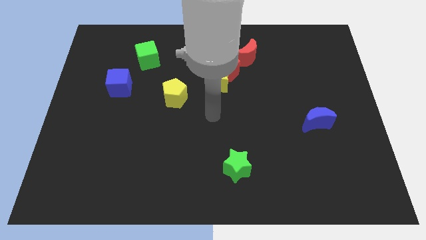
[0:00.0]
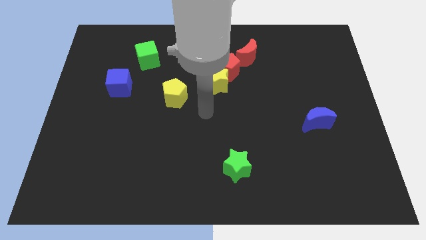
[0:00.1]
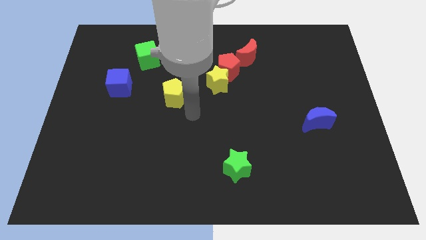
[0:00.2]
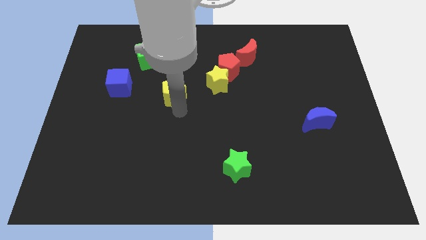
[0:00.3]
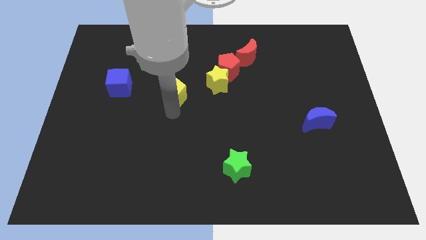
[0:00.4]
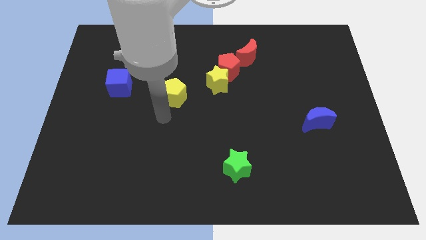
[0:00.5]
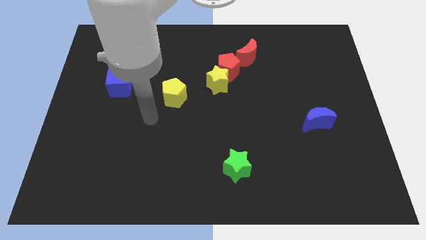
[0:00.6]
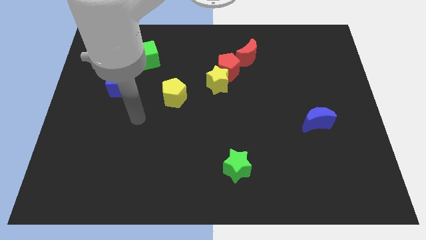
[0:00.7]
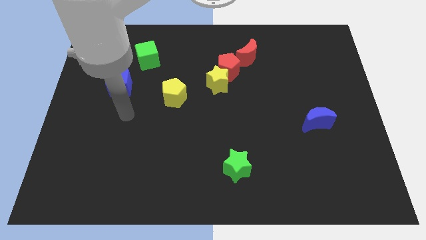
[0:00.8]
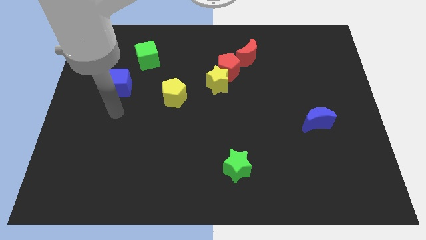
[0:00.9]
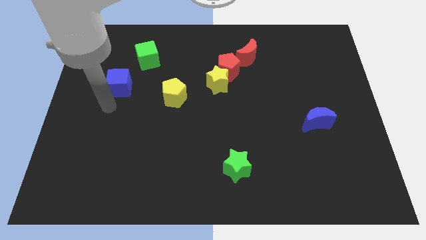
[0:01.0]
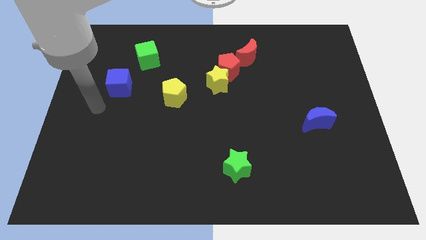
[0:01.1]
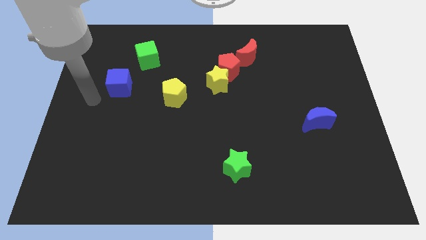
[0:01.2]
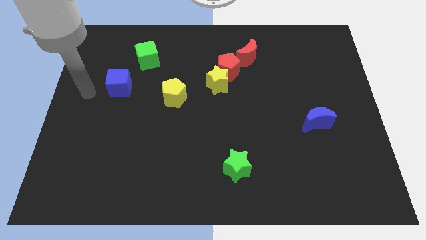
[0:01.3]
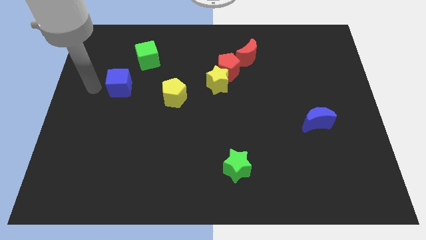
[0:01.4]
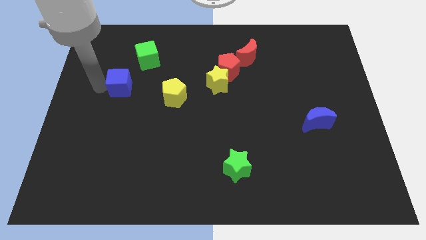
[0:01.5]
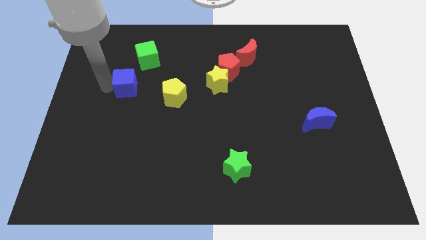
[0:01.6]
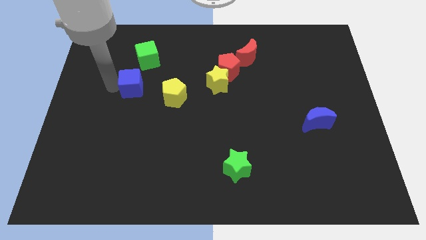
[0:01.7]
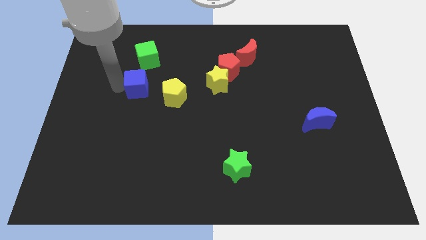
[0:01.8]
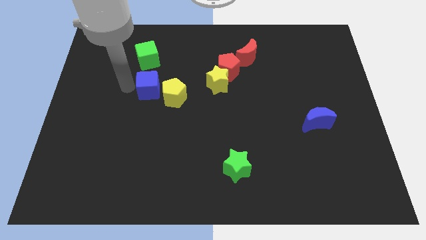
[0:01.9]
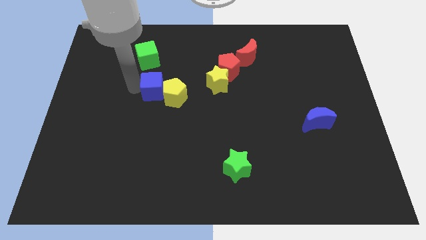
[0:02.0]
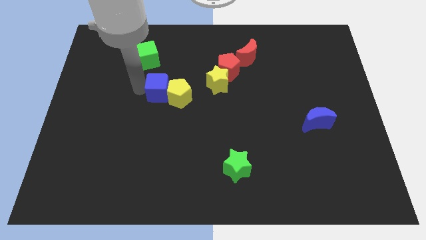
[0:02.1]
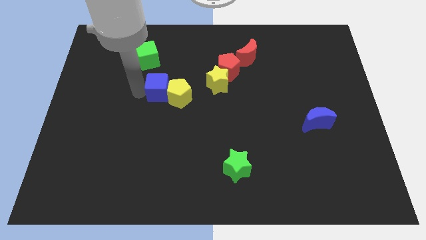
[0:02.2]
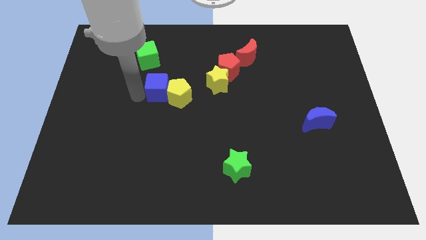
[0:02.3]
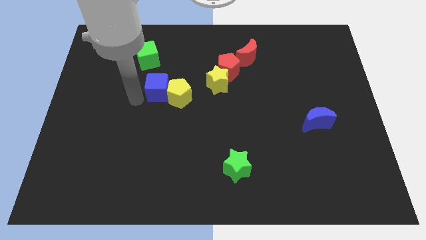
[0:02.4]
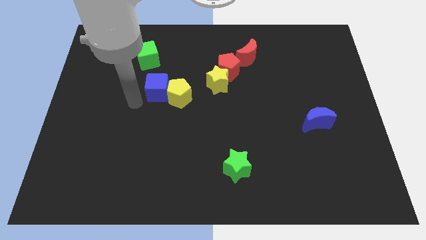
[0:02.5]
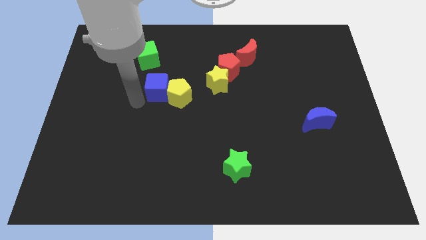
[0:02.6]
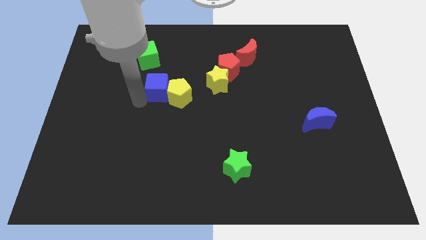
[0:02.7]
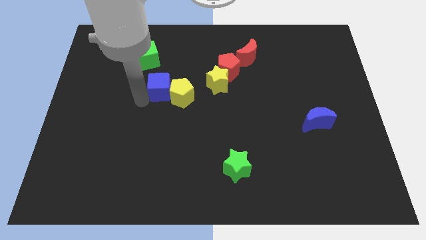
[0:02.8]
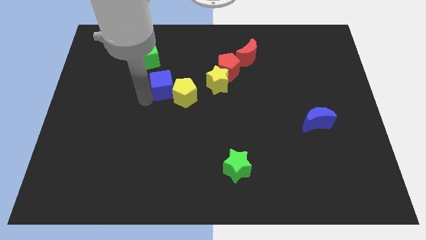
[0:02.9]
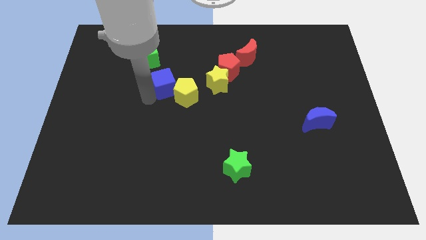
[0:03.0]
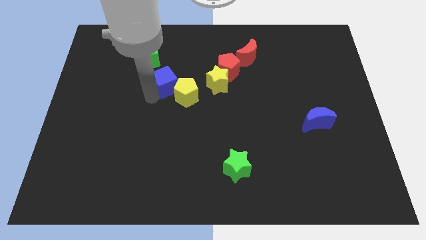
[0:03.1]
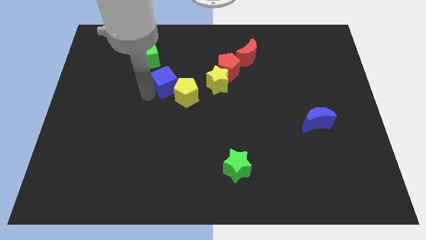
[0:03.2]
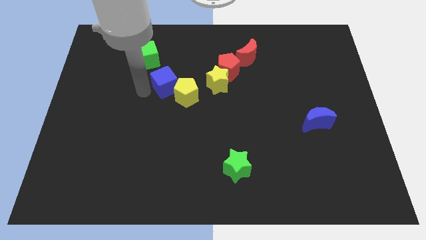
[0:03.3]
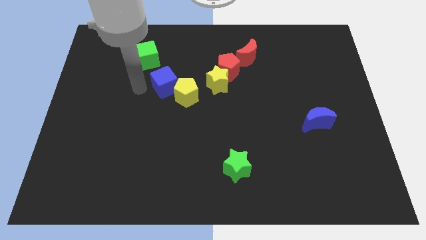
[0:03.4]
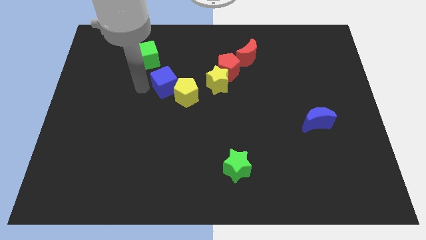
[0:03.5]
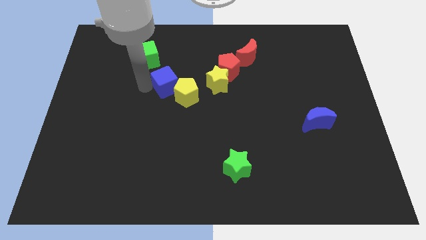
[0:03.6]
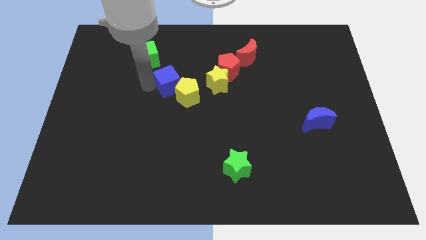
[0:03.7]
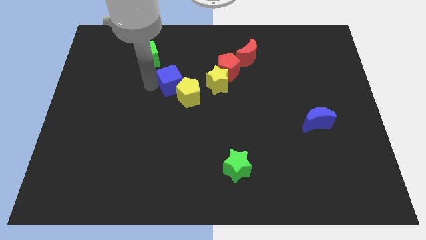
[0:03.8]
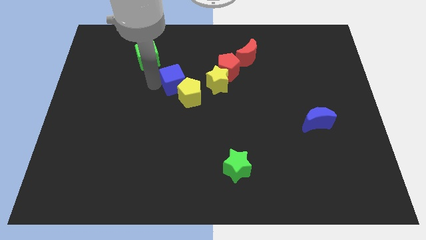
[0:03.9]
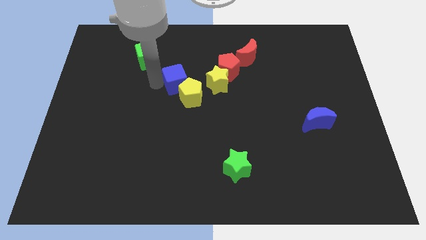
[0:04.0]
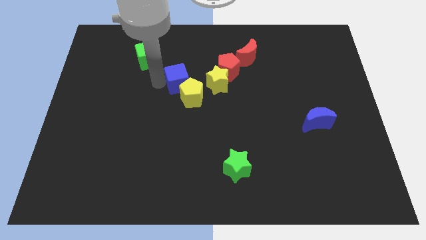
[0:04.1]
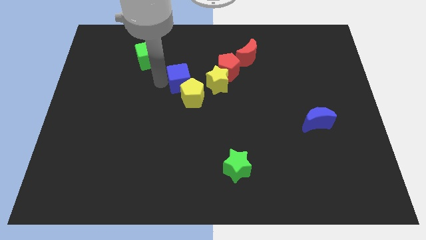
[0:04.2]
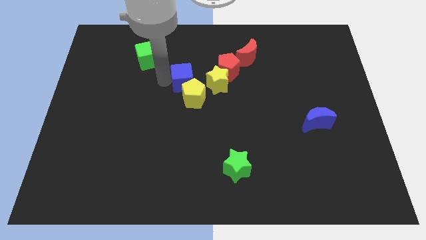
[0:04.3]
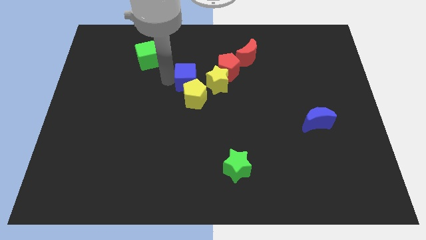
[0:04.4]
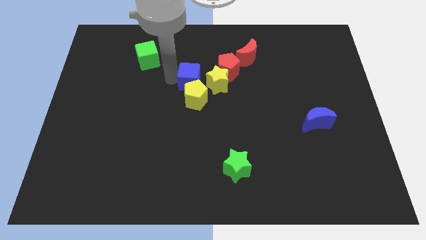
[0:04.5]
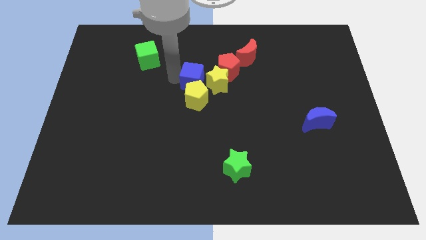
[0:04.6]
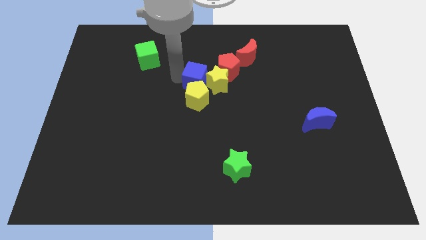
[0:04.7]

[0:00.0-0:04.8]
push the blue cube close to the yellow star

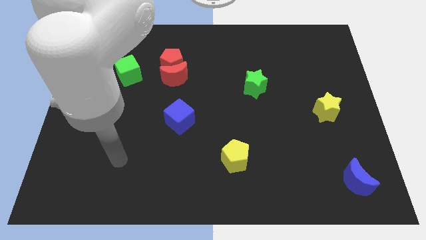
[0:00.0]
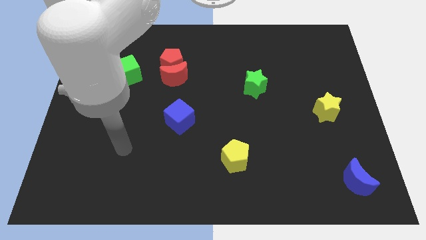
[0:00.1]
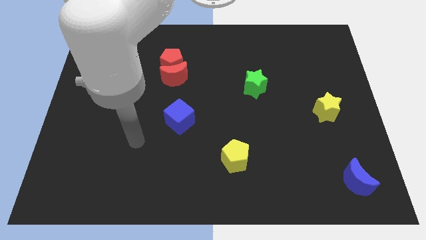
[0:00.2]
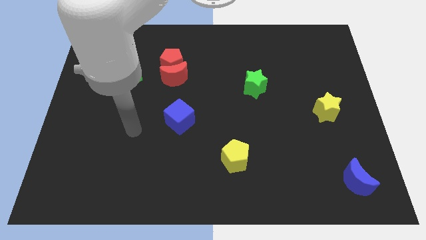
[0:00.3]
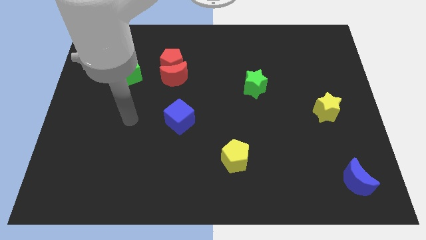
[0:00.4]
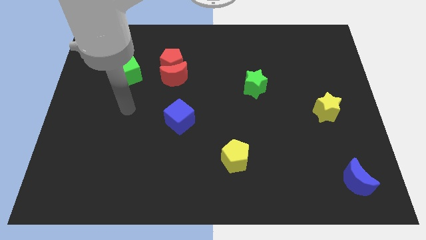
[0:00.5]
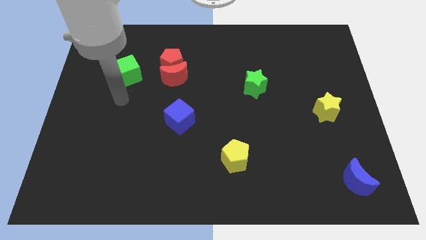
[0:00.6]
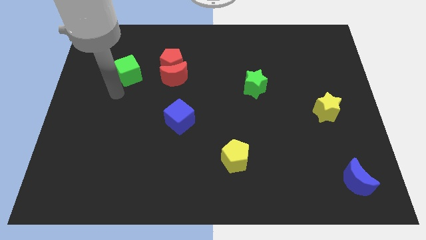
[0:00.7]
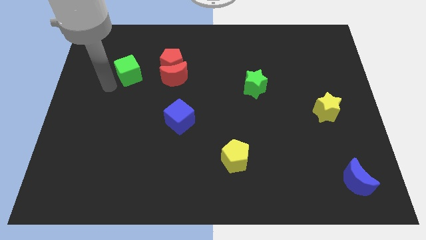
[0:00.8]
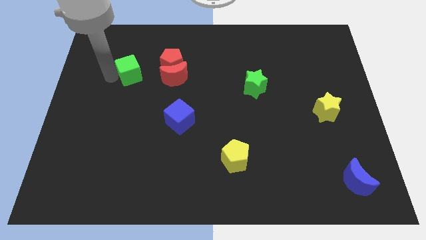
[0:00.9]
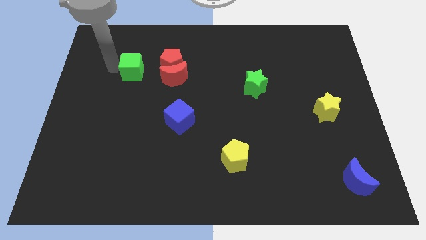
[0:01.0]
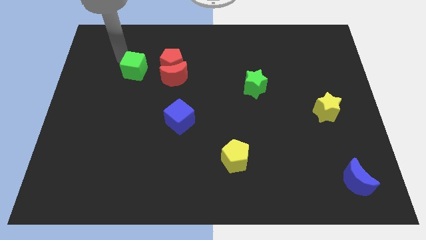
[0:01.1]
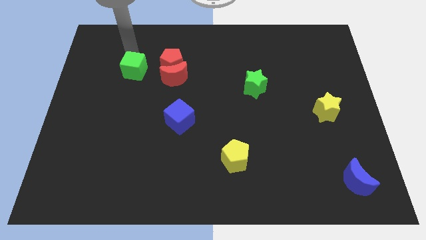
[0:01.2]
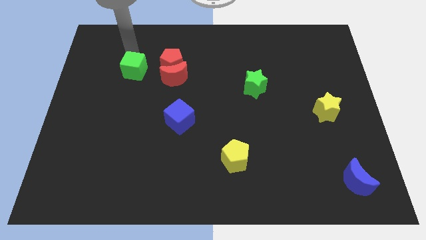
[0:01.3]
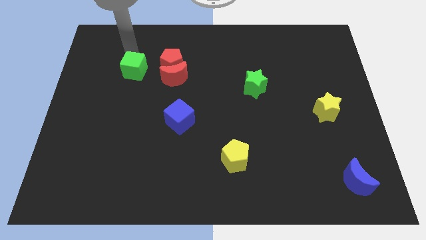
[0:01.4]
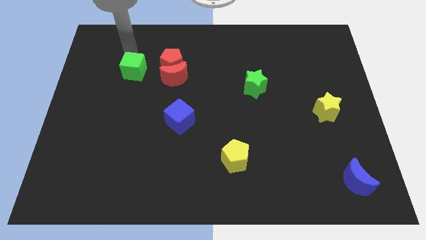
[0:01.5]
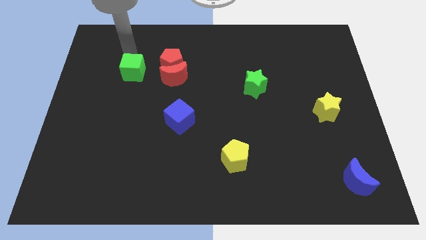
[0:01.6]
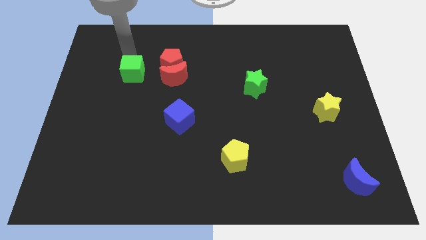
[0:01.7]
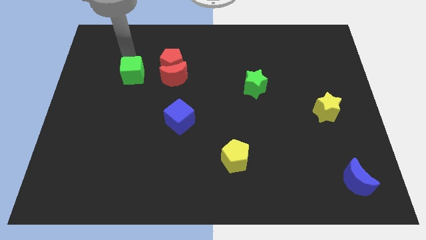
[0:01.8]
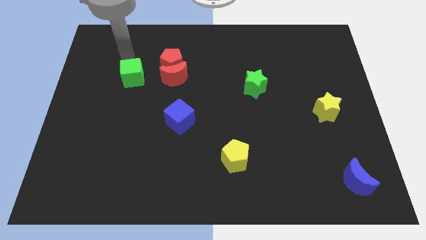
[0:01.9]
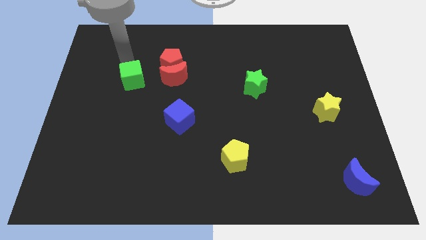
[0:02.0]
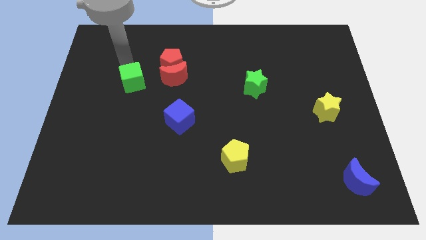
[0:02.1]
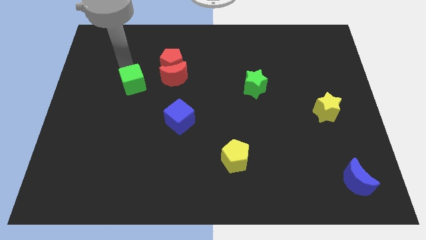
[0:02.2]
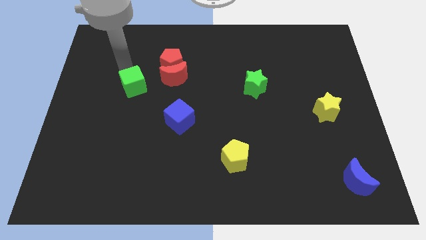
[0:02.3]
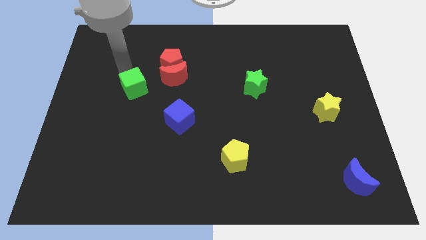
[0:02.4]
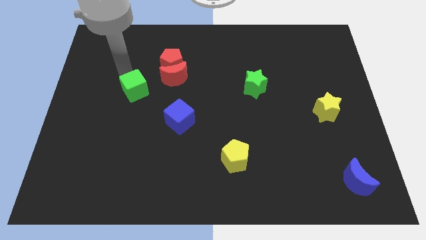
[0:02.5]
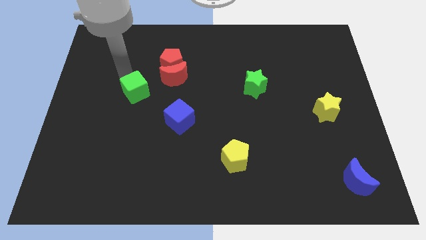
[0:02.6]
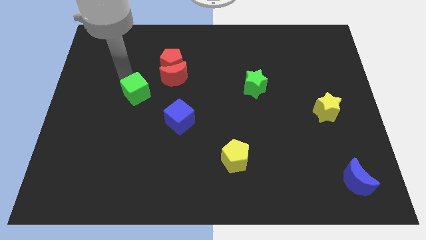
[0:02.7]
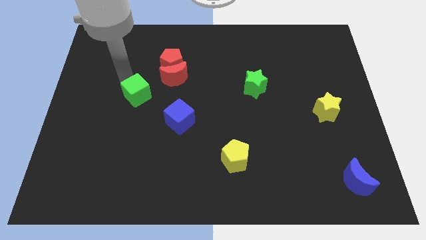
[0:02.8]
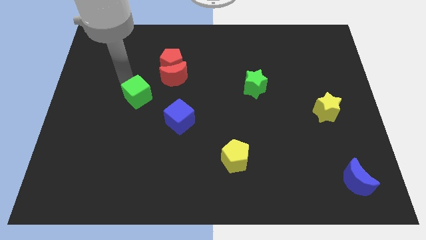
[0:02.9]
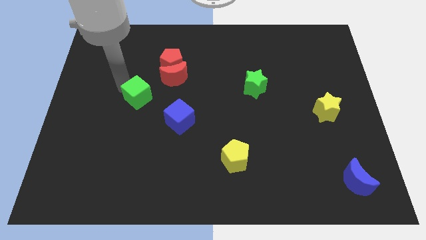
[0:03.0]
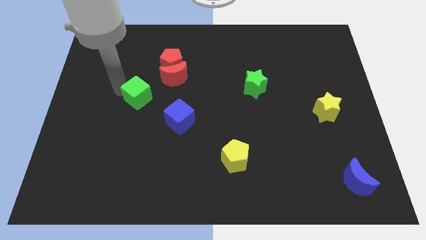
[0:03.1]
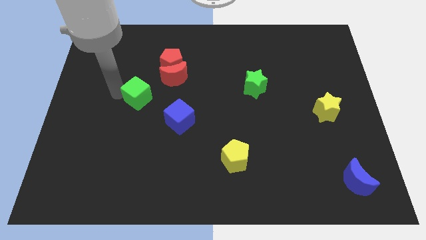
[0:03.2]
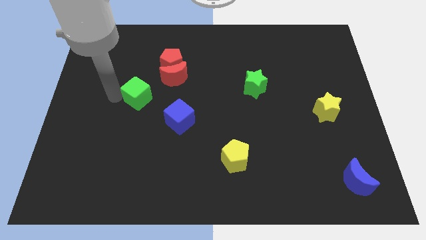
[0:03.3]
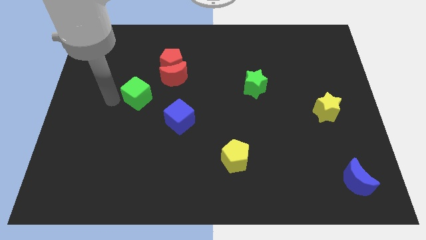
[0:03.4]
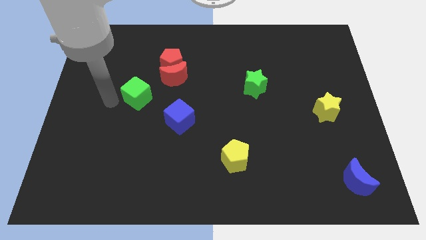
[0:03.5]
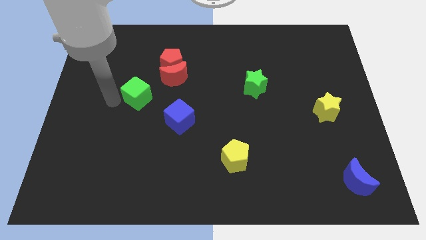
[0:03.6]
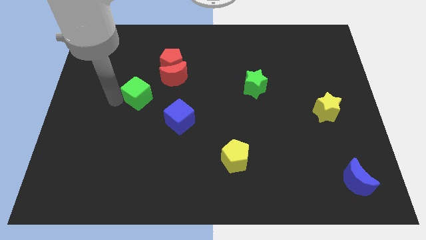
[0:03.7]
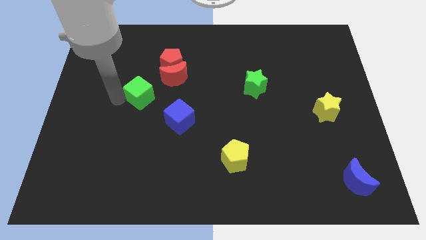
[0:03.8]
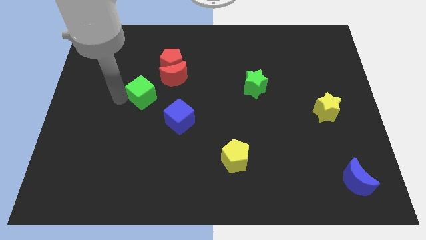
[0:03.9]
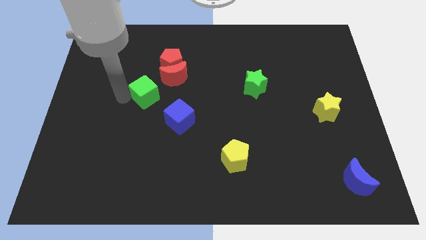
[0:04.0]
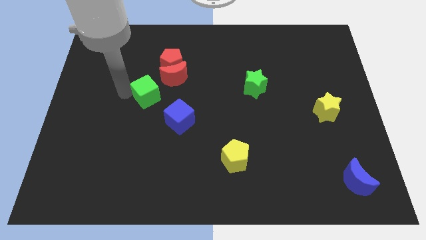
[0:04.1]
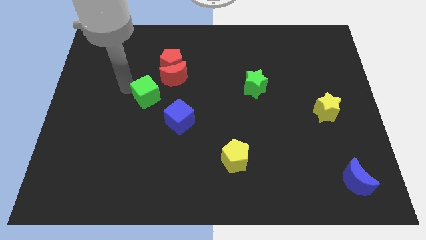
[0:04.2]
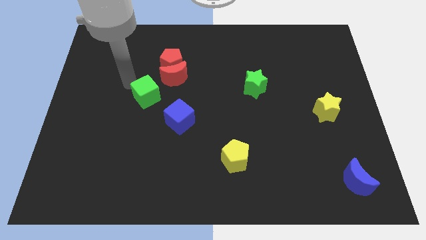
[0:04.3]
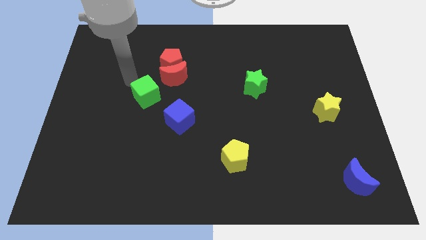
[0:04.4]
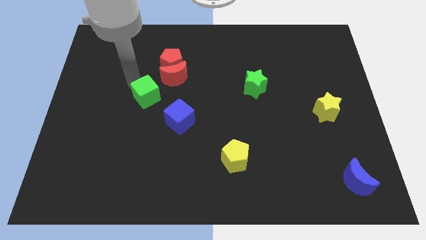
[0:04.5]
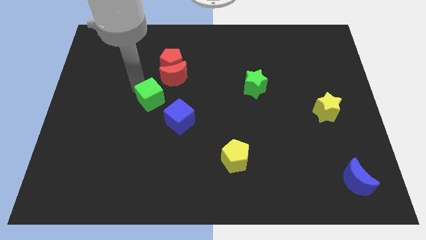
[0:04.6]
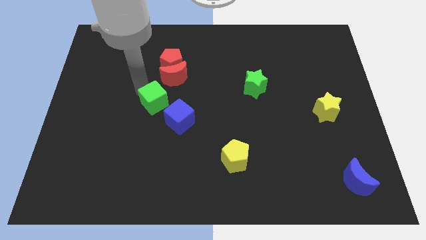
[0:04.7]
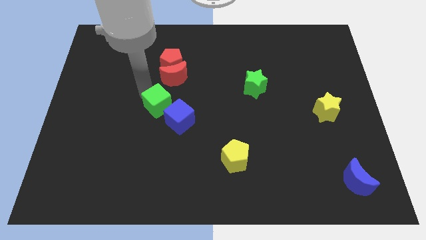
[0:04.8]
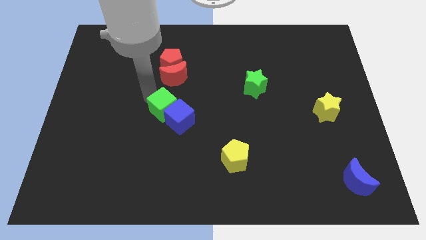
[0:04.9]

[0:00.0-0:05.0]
slide the green cube towards the blue cube
